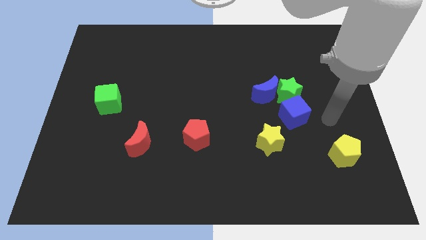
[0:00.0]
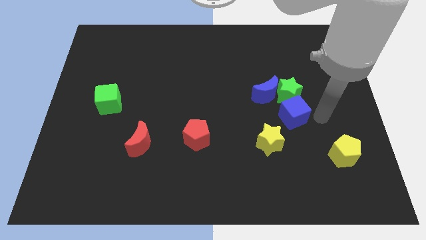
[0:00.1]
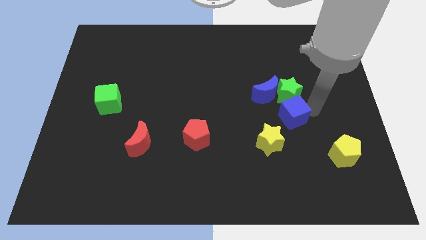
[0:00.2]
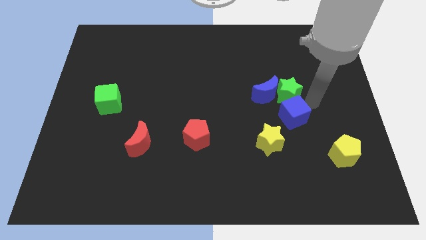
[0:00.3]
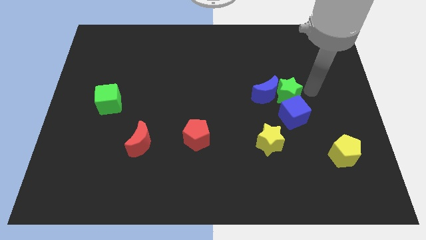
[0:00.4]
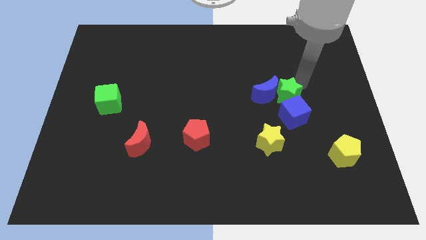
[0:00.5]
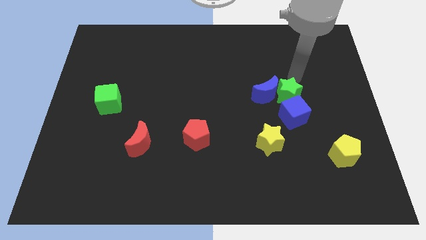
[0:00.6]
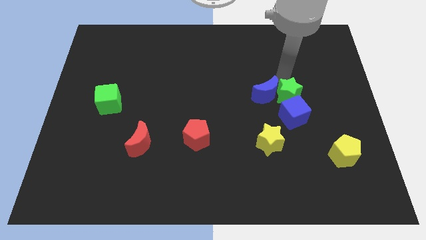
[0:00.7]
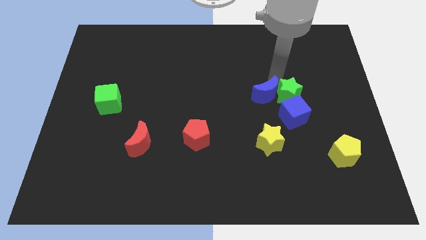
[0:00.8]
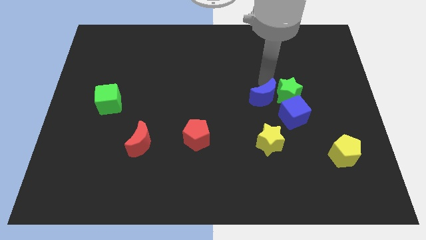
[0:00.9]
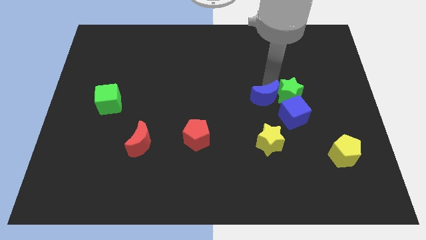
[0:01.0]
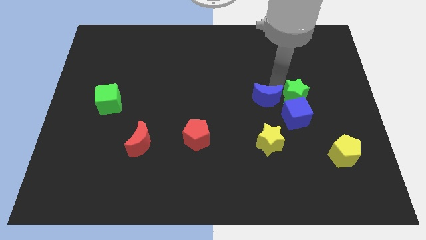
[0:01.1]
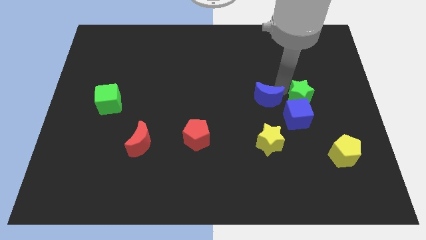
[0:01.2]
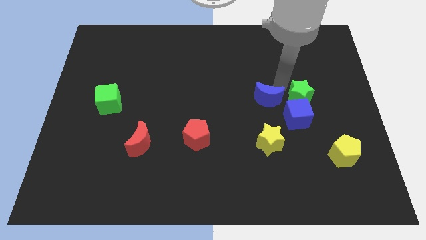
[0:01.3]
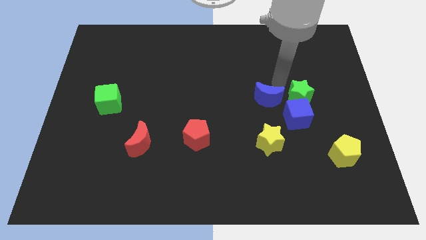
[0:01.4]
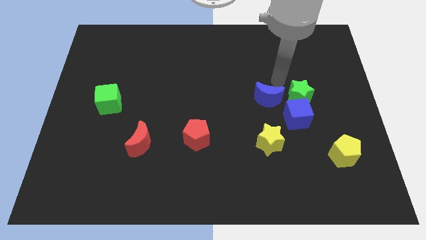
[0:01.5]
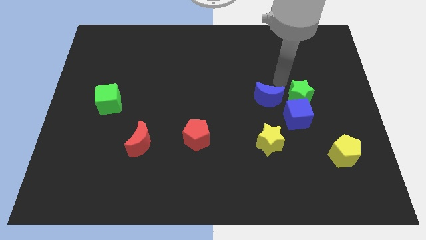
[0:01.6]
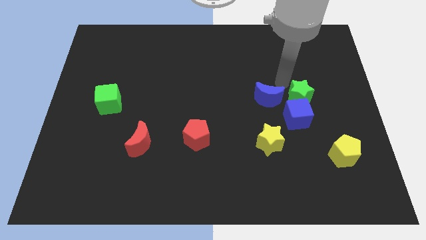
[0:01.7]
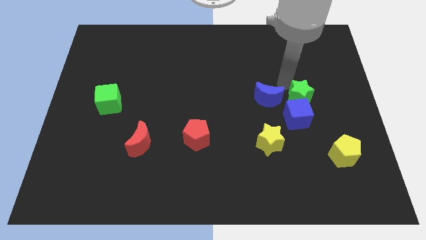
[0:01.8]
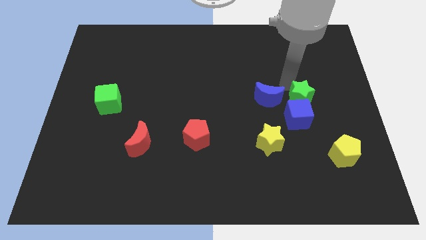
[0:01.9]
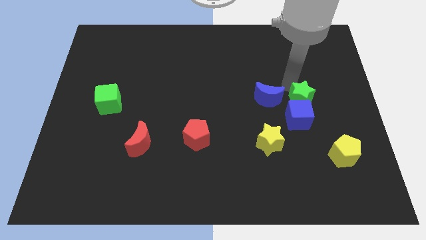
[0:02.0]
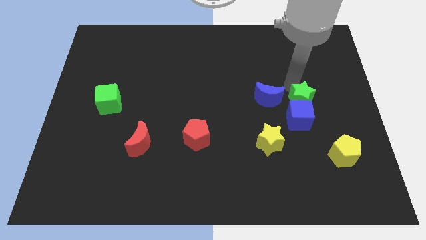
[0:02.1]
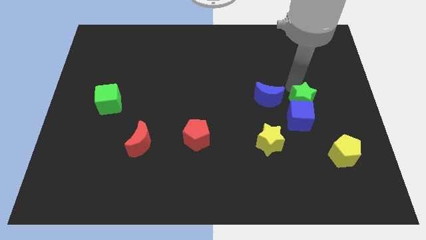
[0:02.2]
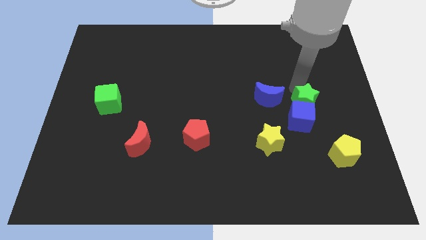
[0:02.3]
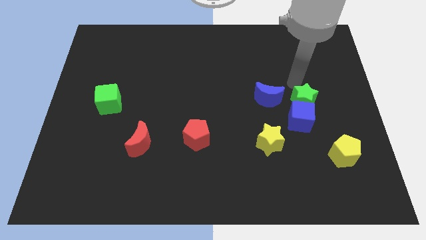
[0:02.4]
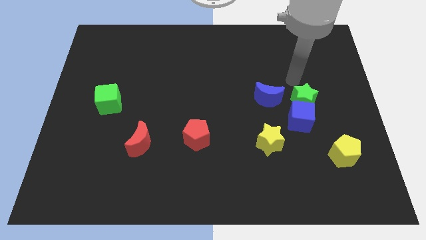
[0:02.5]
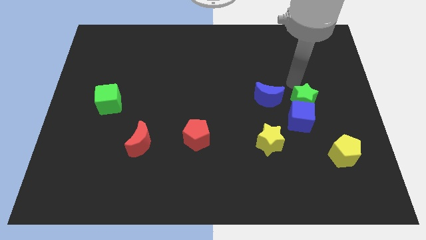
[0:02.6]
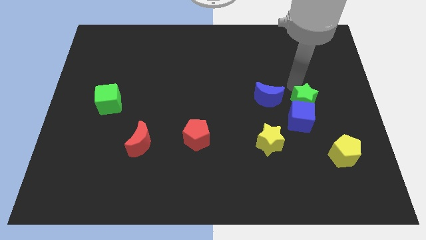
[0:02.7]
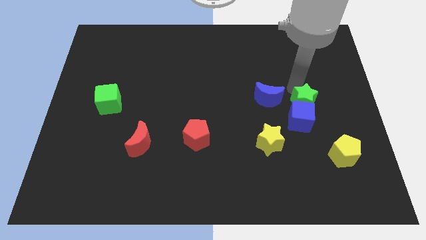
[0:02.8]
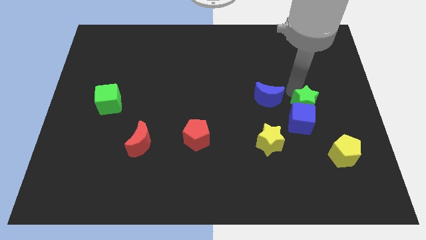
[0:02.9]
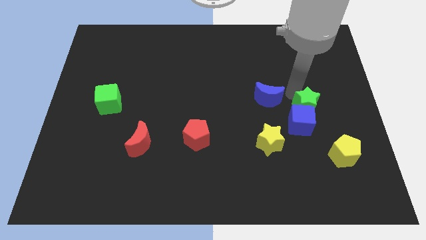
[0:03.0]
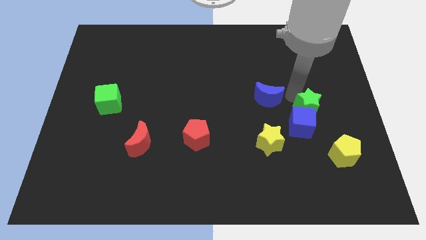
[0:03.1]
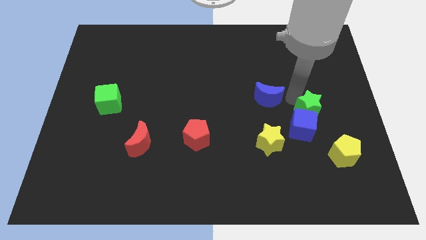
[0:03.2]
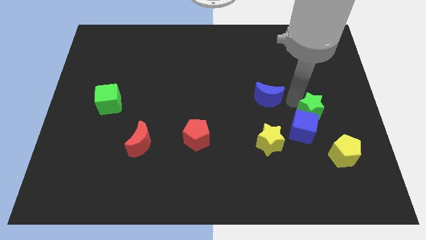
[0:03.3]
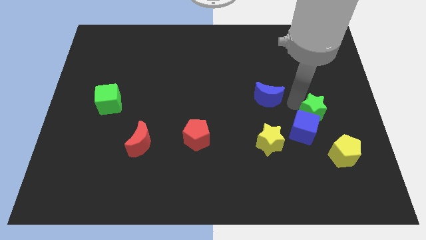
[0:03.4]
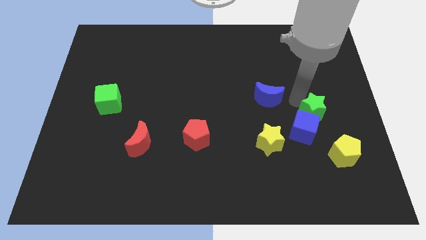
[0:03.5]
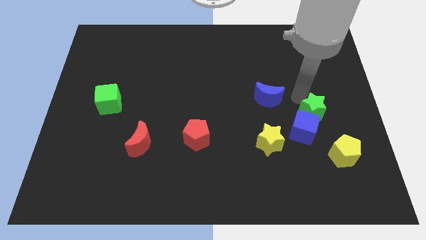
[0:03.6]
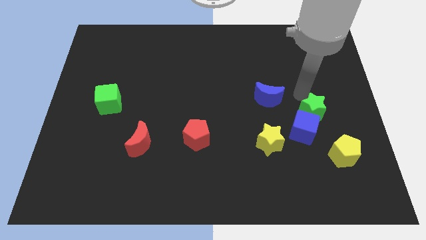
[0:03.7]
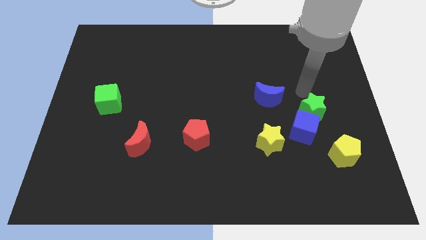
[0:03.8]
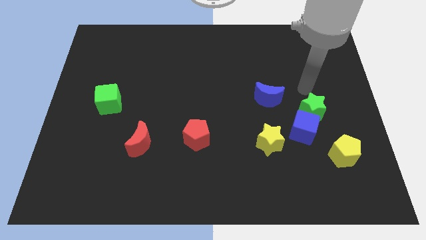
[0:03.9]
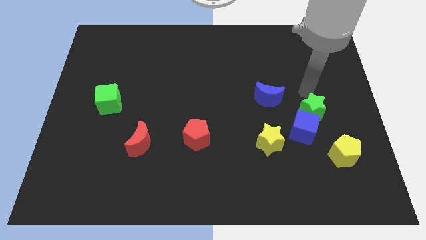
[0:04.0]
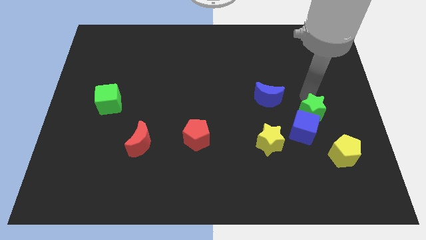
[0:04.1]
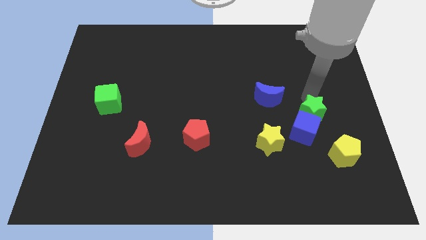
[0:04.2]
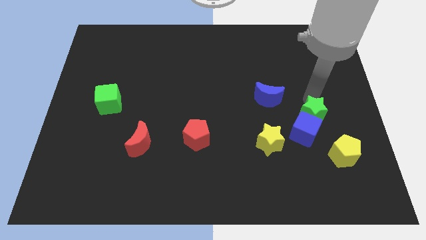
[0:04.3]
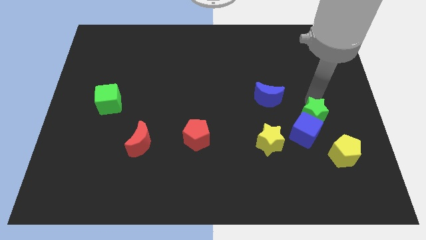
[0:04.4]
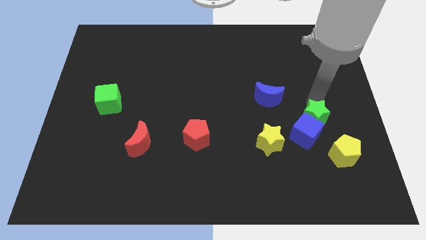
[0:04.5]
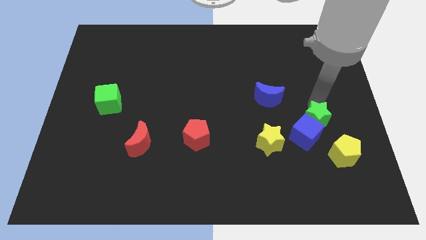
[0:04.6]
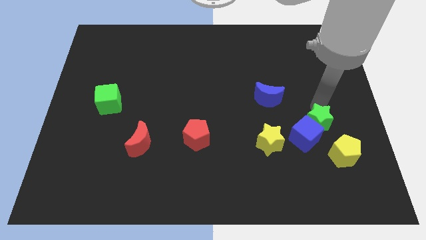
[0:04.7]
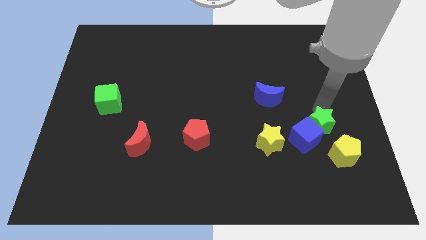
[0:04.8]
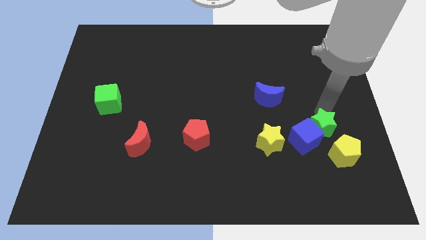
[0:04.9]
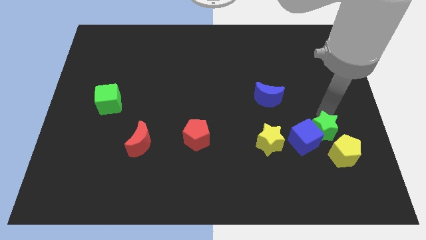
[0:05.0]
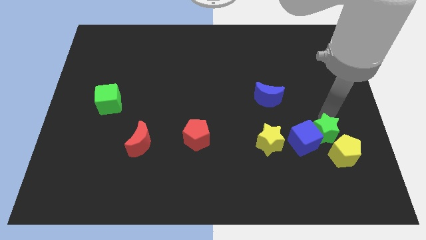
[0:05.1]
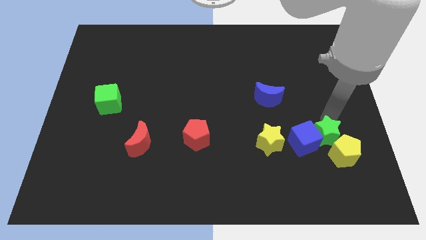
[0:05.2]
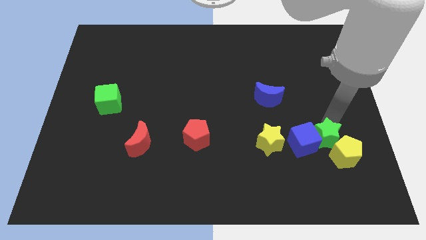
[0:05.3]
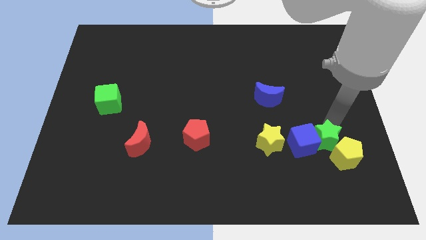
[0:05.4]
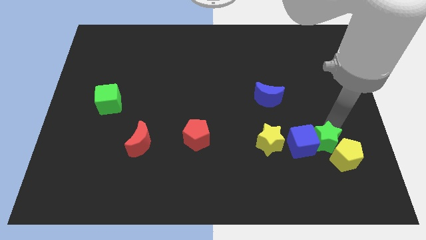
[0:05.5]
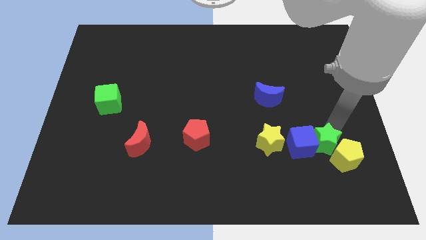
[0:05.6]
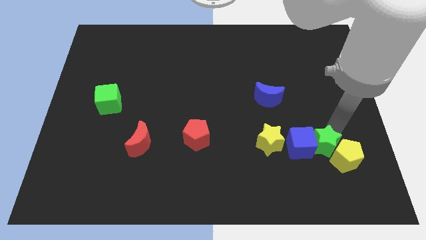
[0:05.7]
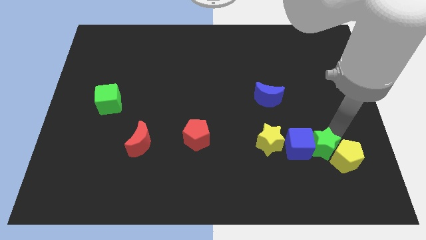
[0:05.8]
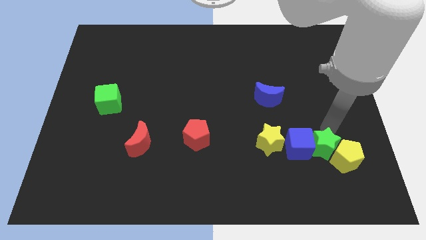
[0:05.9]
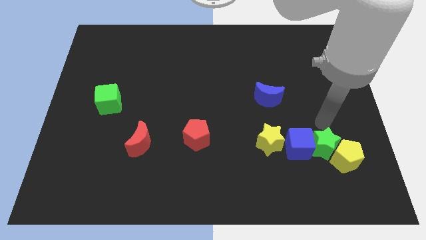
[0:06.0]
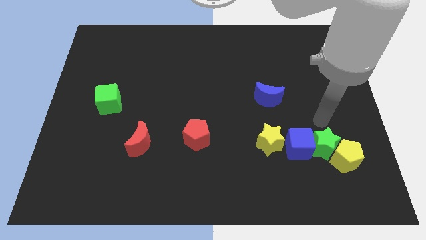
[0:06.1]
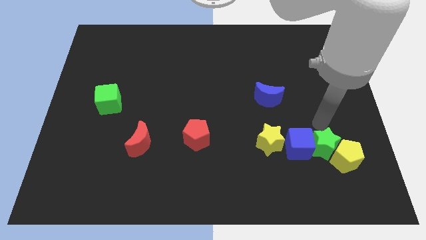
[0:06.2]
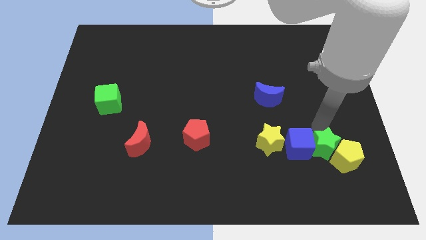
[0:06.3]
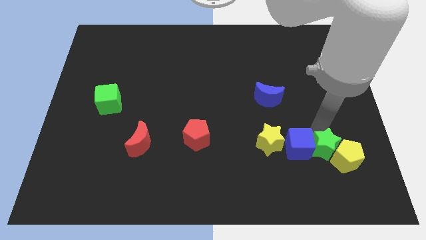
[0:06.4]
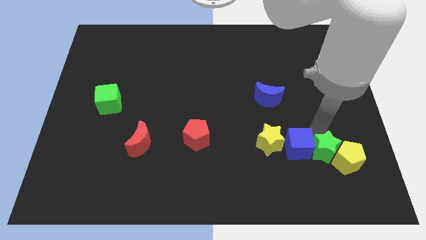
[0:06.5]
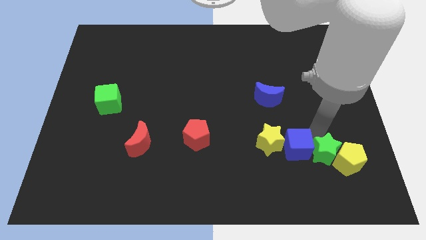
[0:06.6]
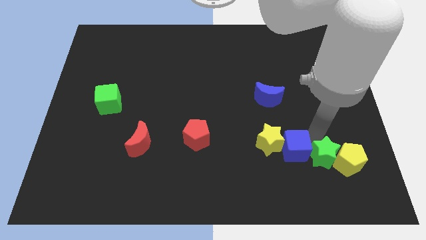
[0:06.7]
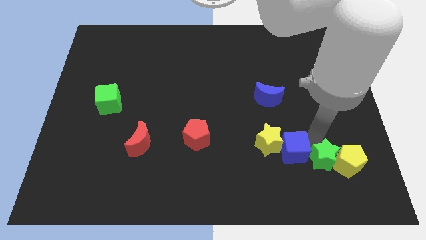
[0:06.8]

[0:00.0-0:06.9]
push the green star to the bottom left of the yellow pentagon
